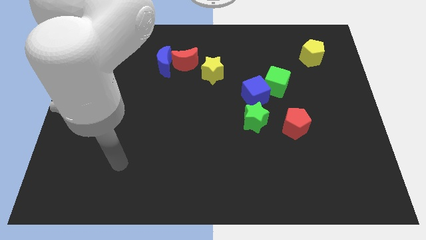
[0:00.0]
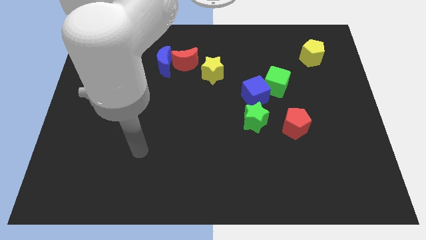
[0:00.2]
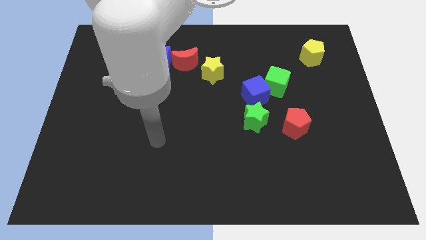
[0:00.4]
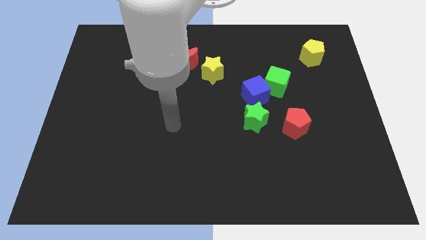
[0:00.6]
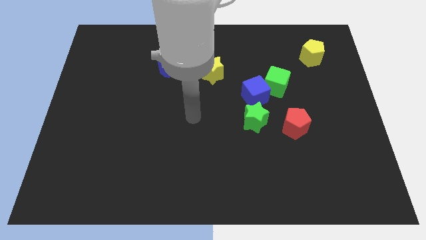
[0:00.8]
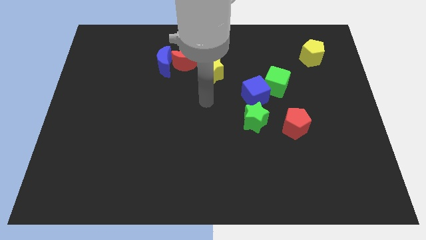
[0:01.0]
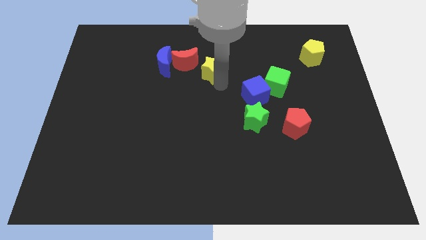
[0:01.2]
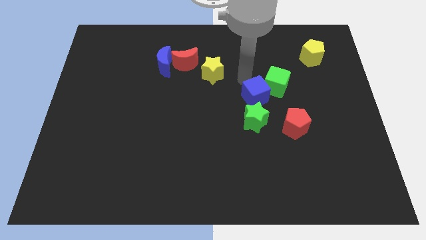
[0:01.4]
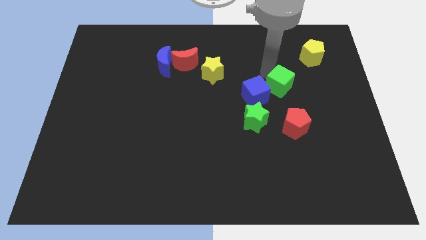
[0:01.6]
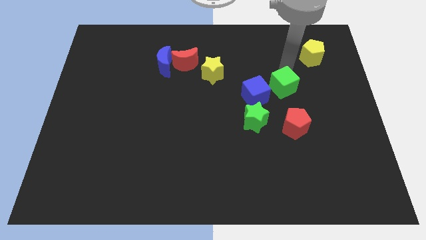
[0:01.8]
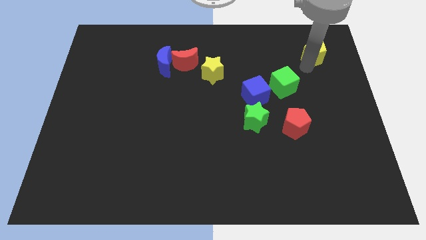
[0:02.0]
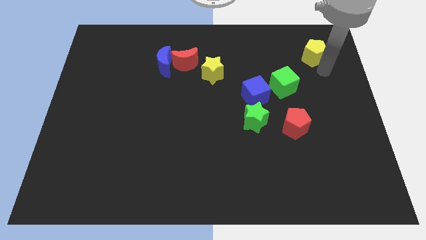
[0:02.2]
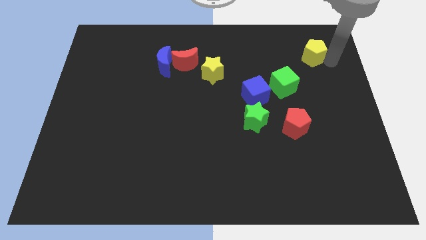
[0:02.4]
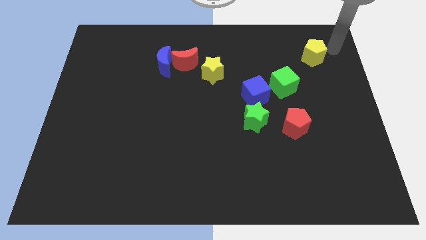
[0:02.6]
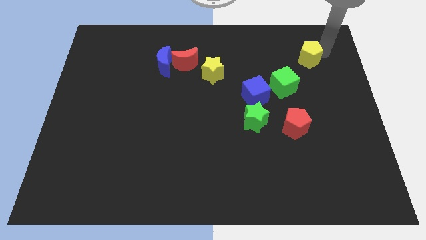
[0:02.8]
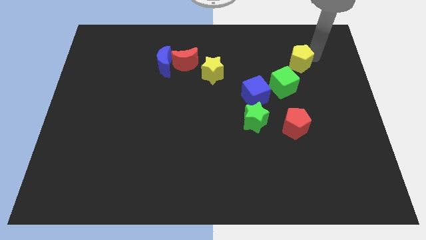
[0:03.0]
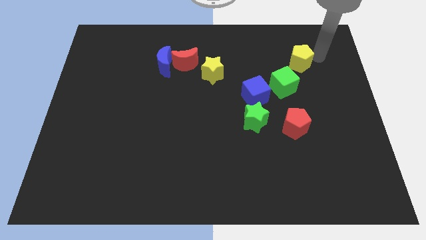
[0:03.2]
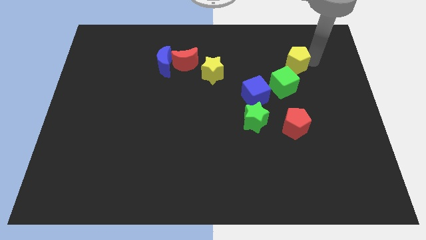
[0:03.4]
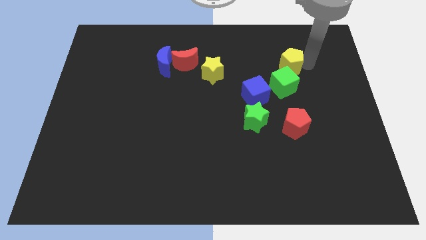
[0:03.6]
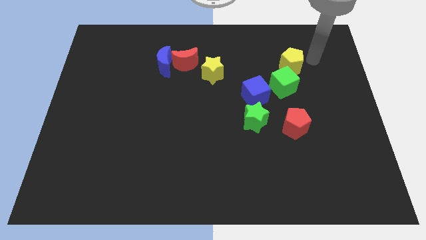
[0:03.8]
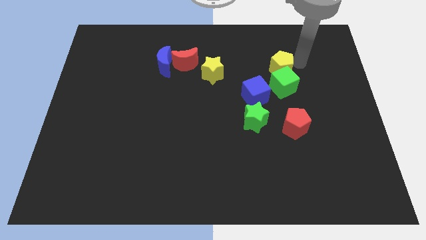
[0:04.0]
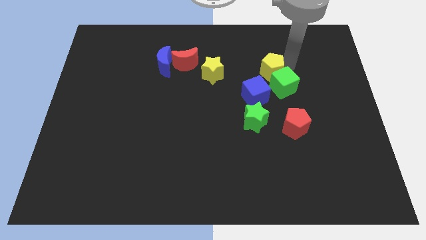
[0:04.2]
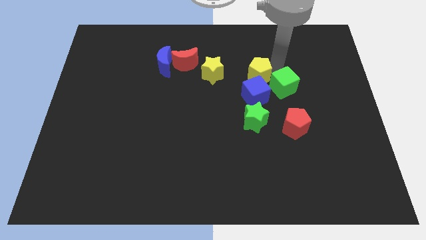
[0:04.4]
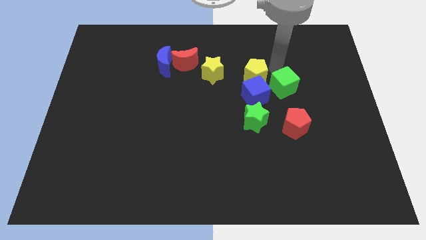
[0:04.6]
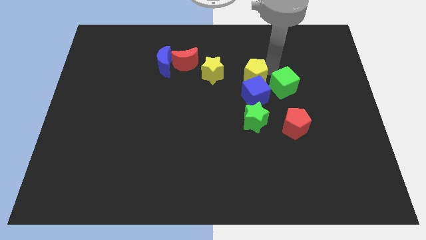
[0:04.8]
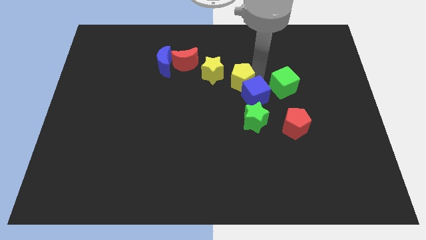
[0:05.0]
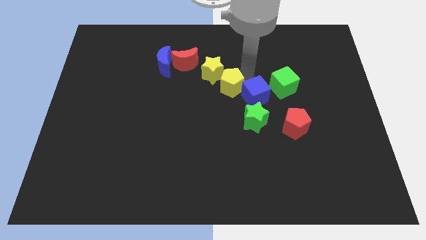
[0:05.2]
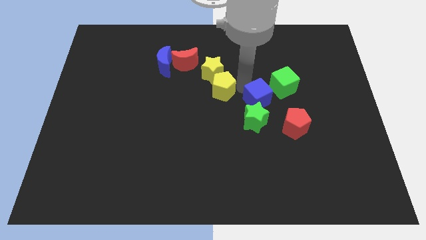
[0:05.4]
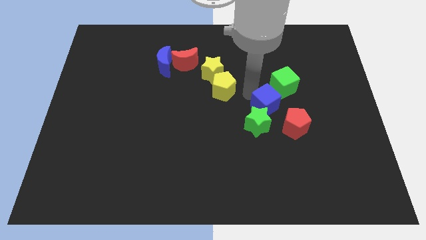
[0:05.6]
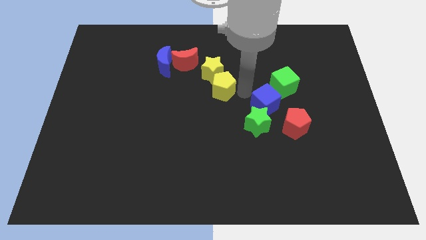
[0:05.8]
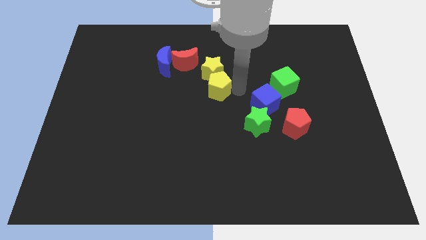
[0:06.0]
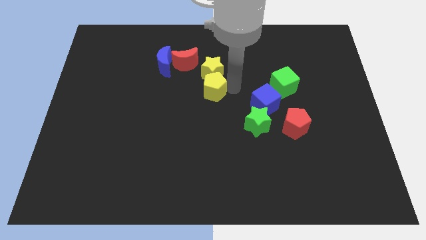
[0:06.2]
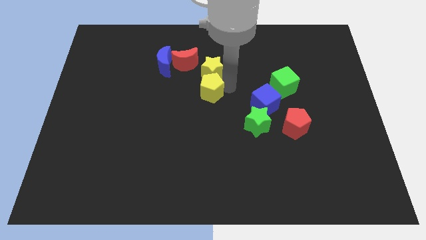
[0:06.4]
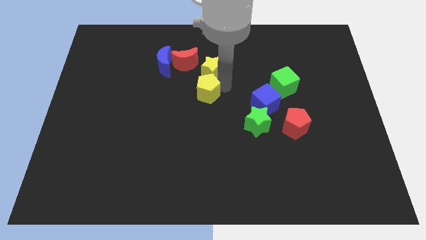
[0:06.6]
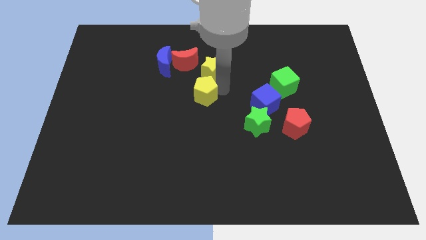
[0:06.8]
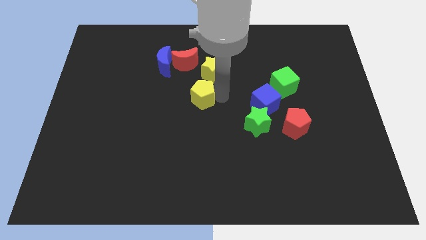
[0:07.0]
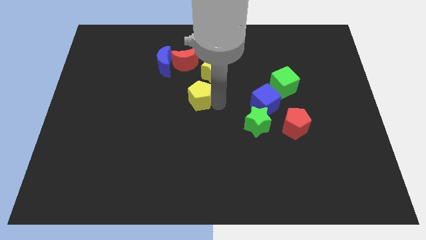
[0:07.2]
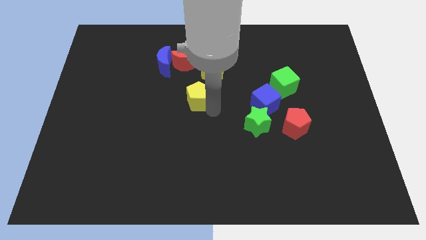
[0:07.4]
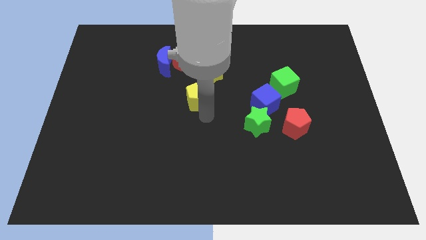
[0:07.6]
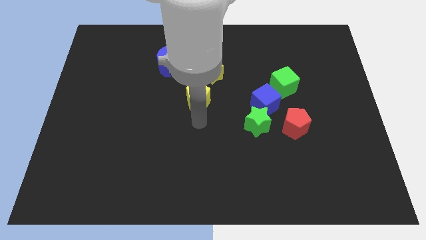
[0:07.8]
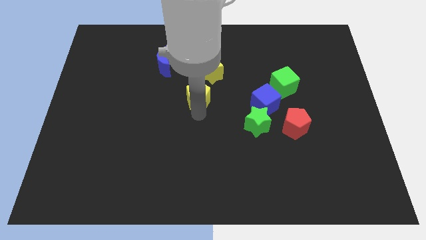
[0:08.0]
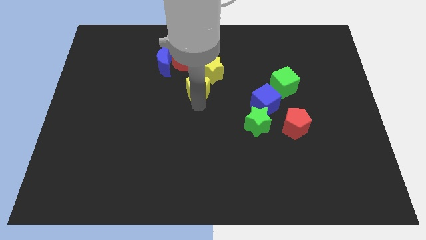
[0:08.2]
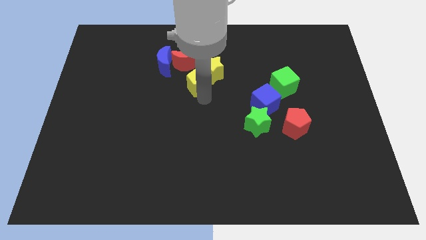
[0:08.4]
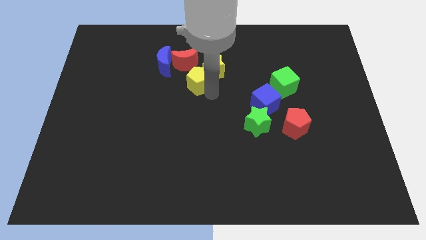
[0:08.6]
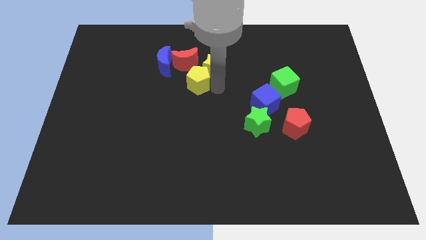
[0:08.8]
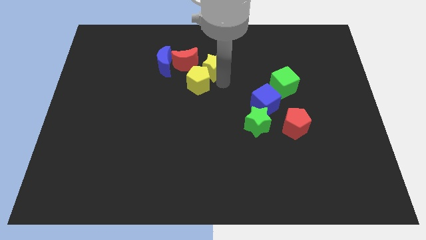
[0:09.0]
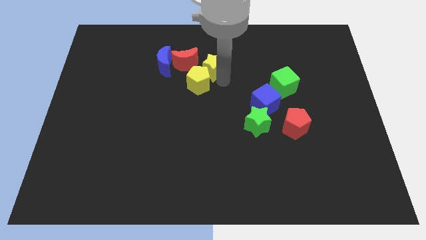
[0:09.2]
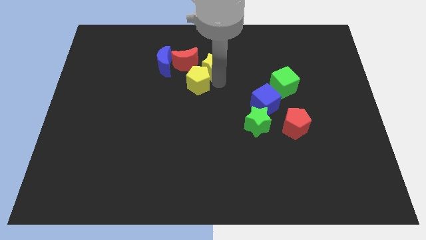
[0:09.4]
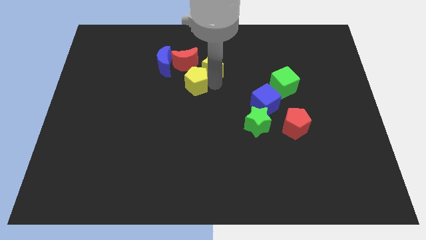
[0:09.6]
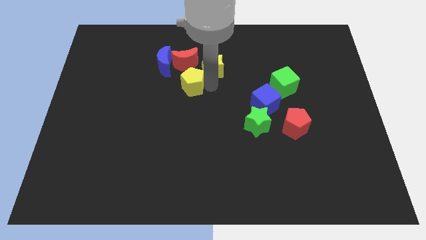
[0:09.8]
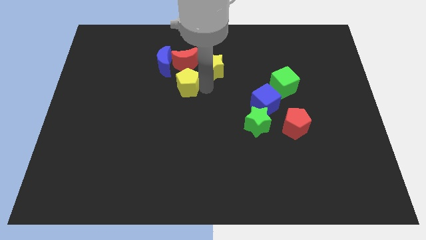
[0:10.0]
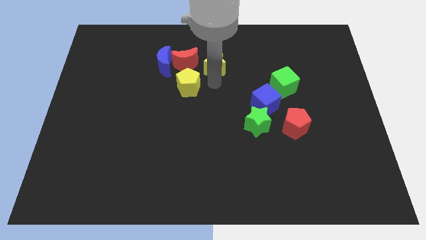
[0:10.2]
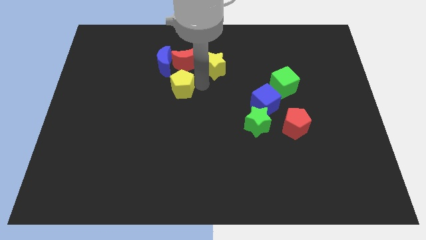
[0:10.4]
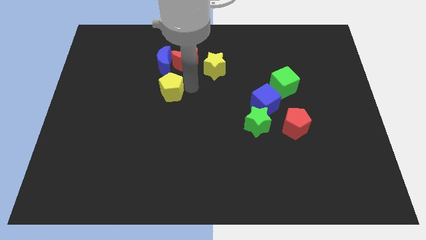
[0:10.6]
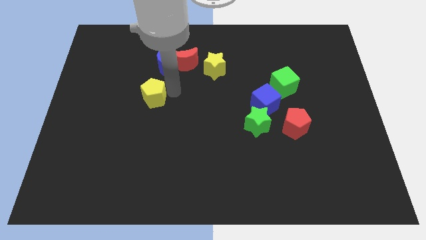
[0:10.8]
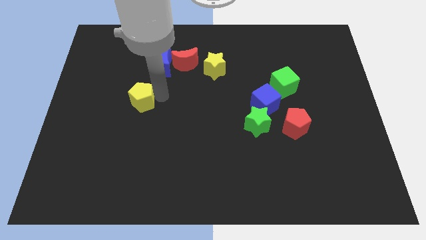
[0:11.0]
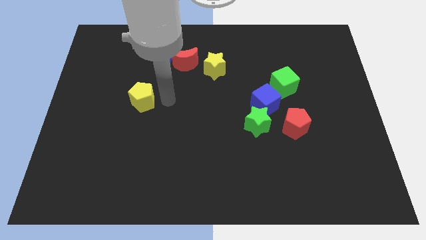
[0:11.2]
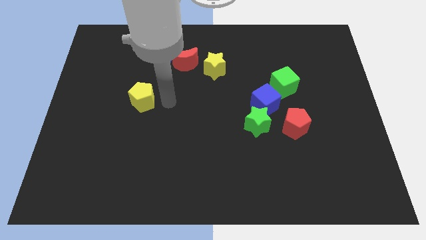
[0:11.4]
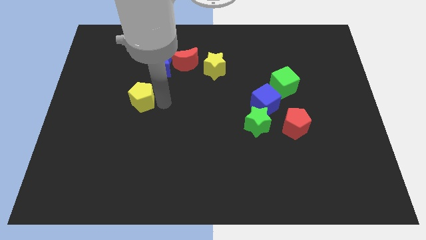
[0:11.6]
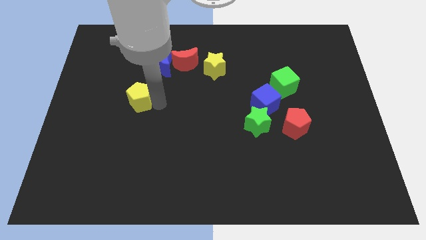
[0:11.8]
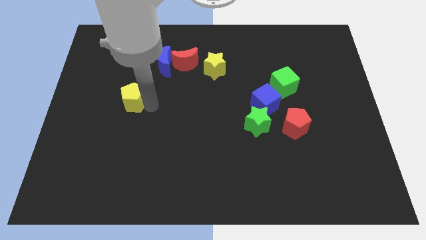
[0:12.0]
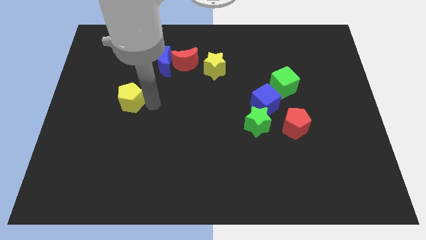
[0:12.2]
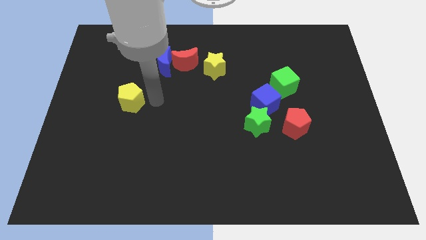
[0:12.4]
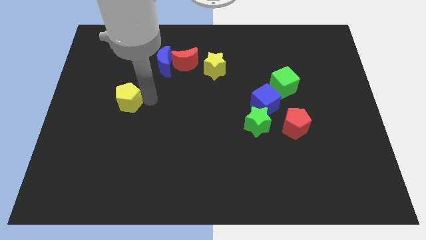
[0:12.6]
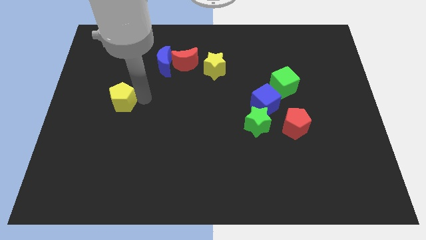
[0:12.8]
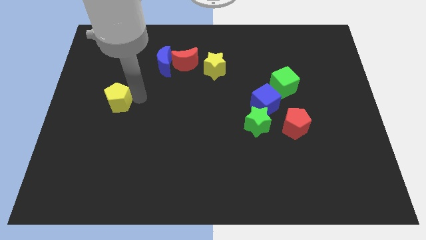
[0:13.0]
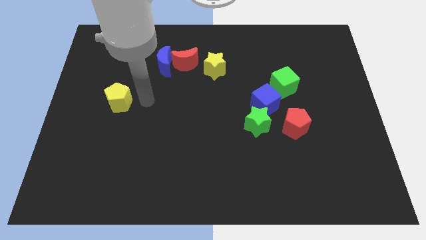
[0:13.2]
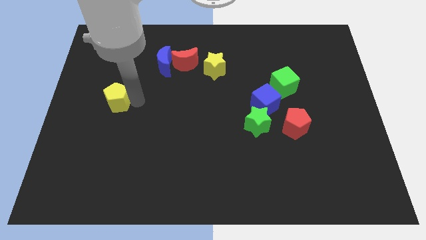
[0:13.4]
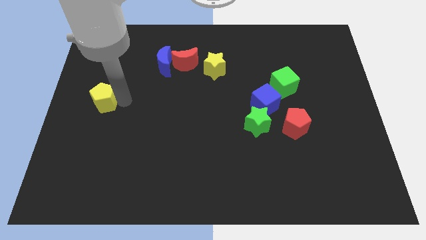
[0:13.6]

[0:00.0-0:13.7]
slide the yellow pentagon to the left side
